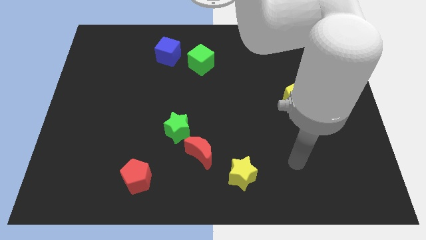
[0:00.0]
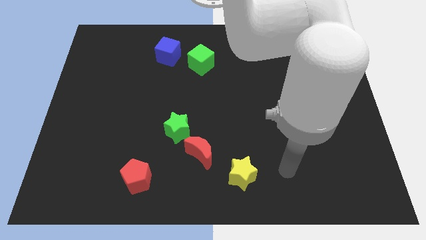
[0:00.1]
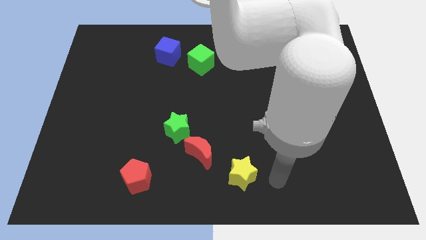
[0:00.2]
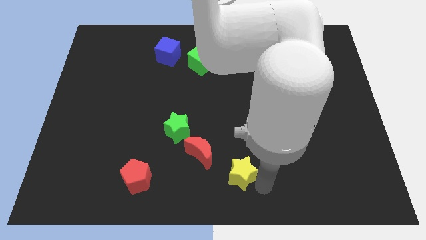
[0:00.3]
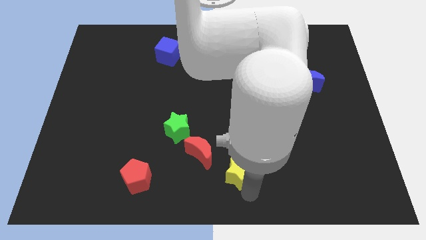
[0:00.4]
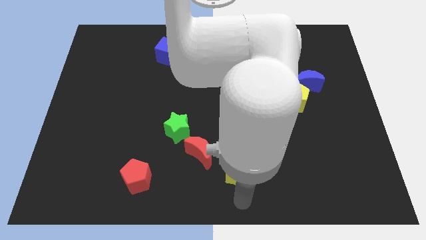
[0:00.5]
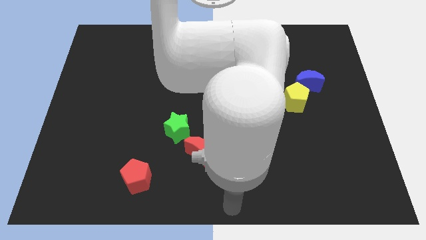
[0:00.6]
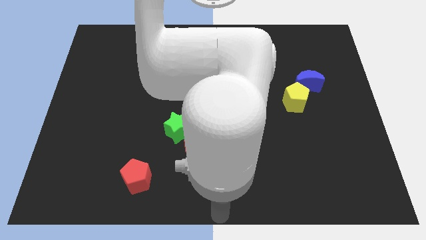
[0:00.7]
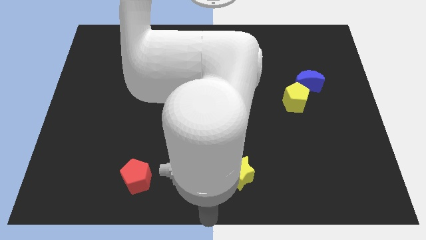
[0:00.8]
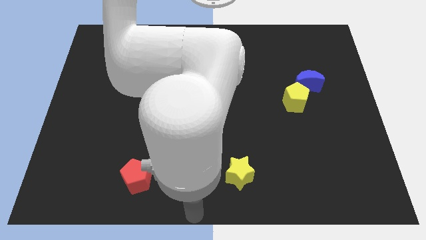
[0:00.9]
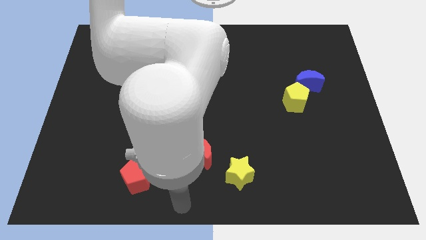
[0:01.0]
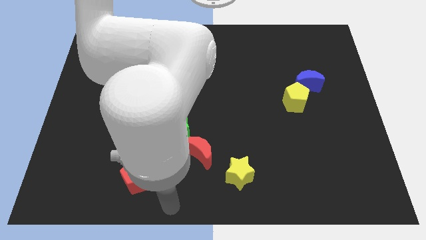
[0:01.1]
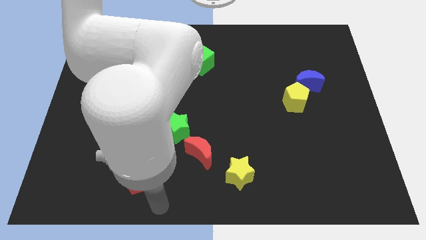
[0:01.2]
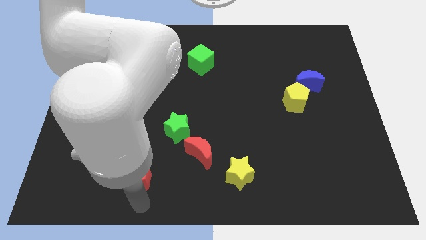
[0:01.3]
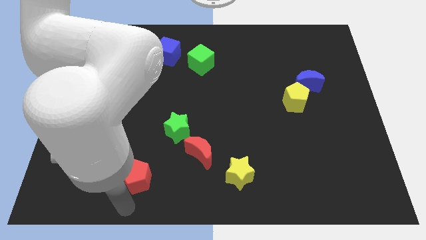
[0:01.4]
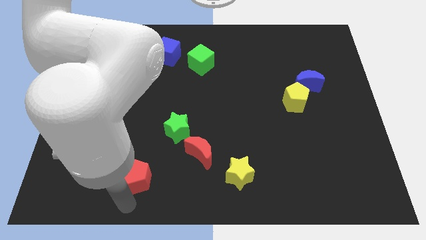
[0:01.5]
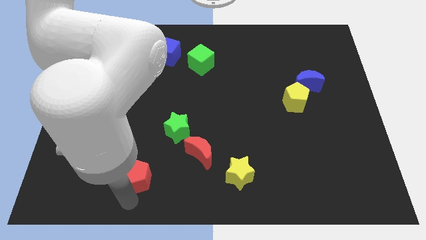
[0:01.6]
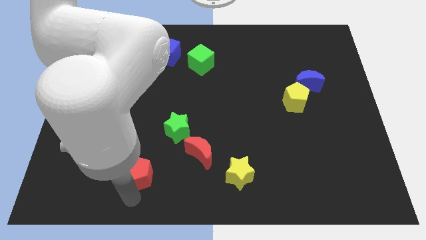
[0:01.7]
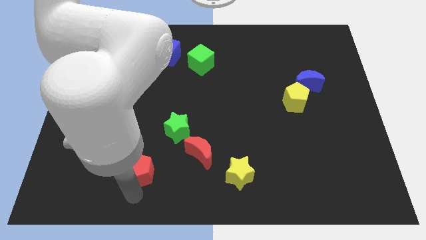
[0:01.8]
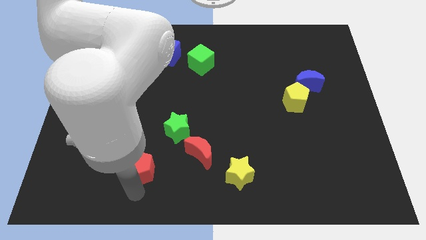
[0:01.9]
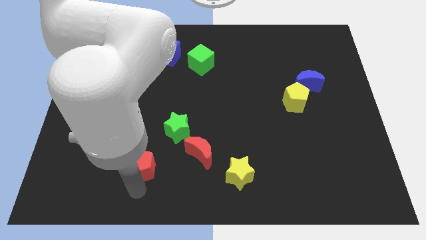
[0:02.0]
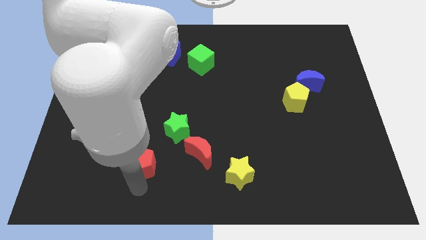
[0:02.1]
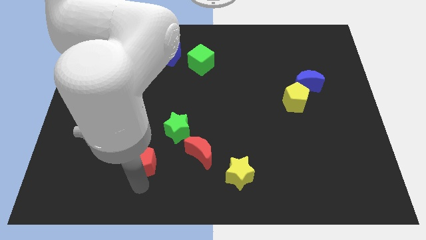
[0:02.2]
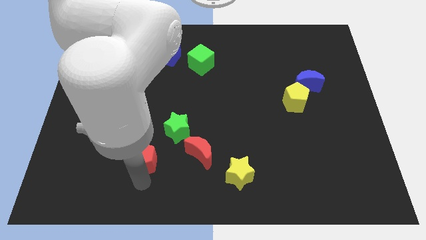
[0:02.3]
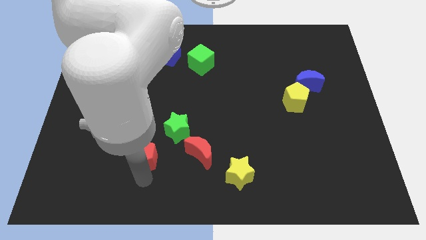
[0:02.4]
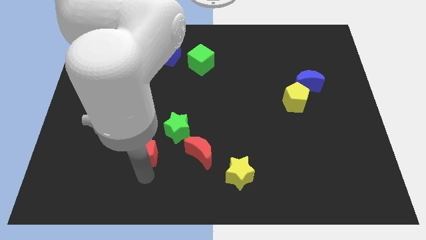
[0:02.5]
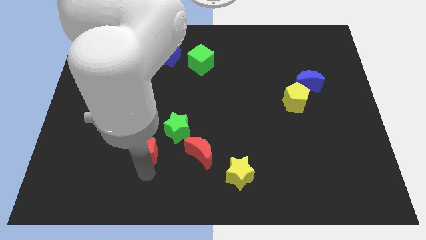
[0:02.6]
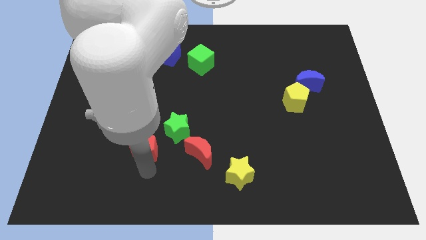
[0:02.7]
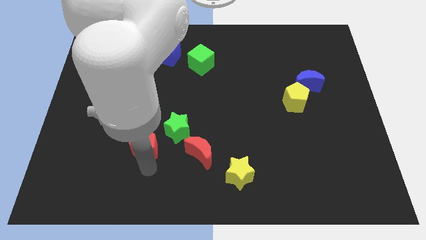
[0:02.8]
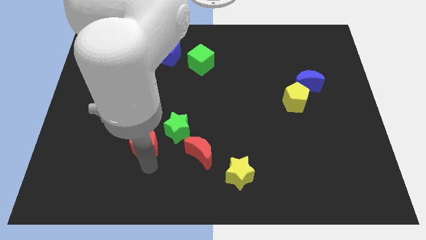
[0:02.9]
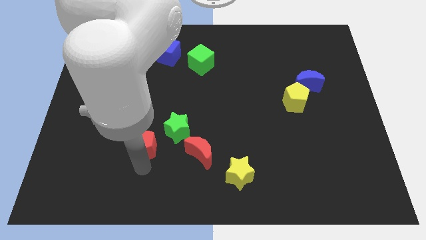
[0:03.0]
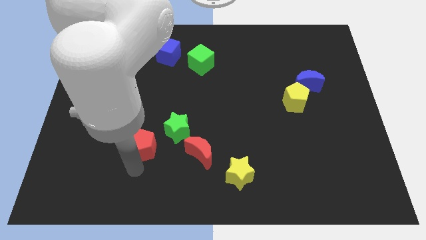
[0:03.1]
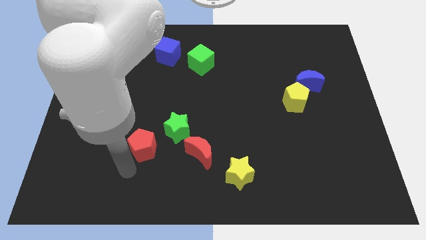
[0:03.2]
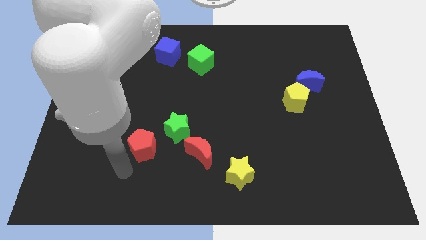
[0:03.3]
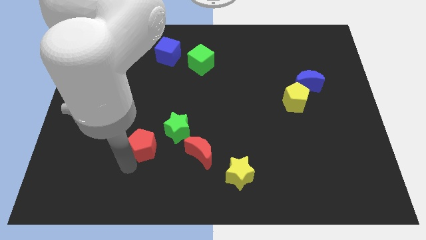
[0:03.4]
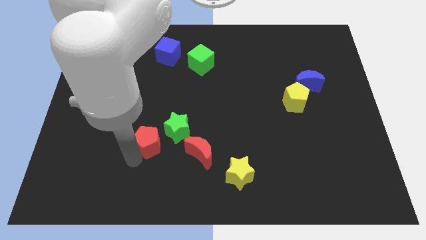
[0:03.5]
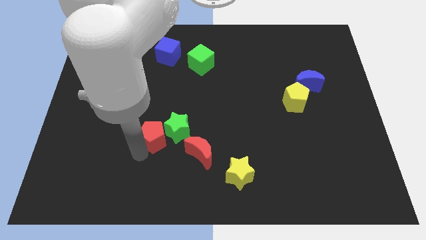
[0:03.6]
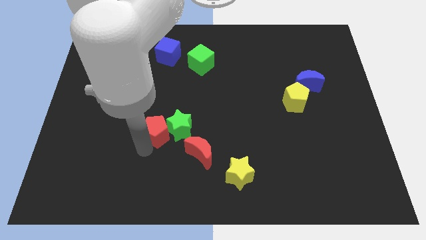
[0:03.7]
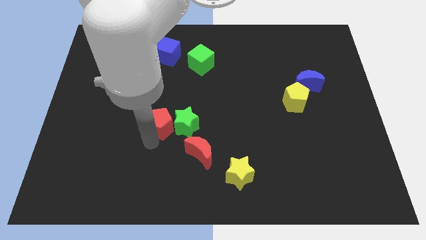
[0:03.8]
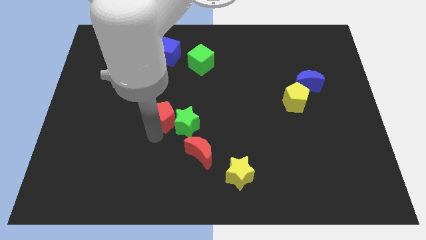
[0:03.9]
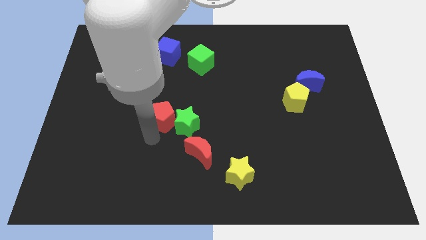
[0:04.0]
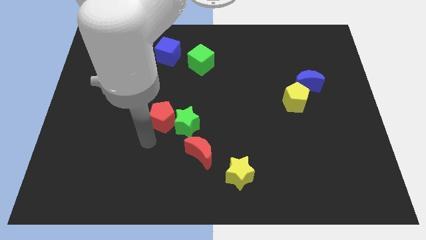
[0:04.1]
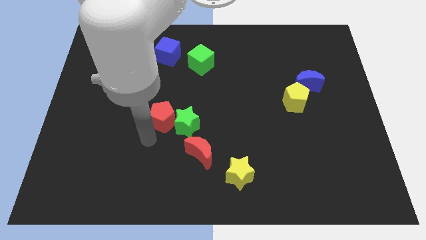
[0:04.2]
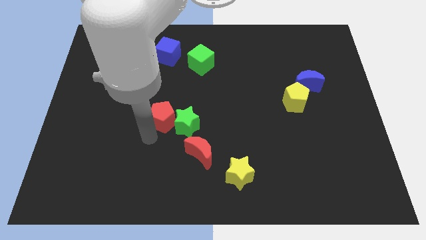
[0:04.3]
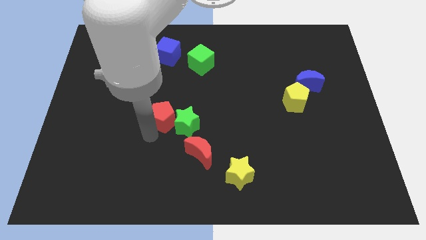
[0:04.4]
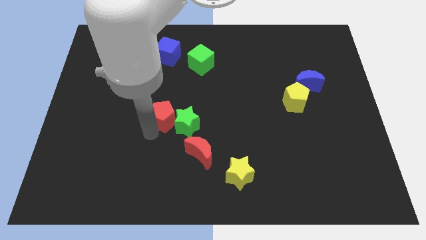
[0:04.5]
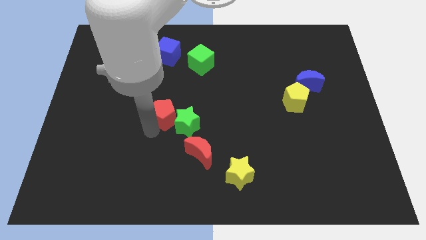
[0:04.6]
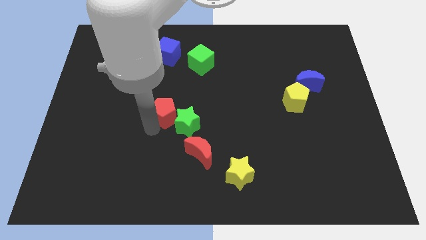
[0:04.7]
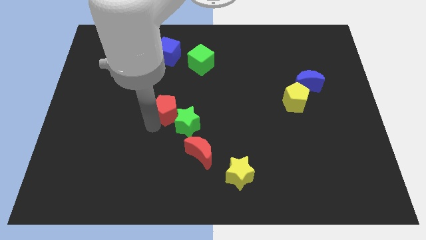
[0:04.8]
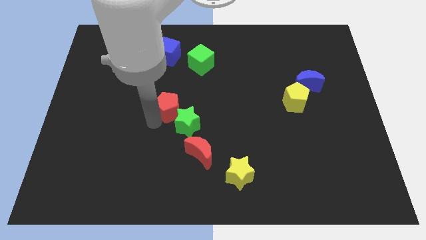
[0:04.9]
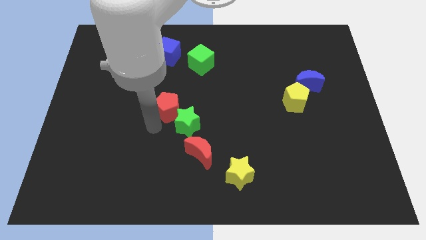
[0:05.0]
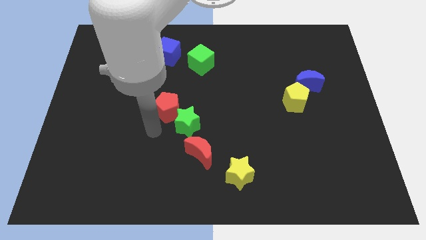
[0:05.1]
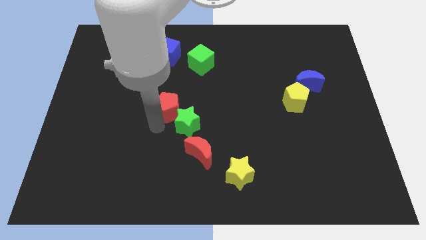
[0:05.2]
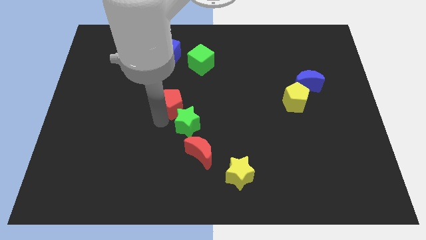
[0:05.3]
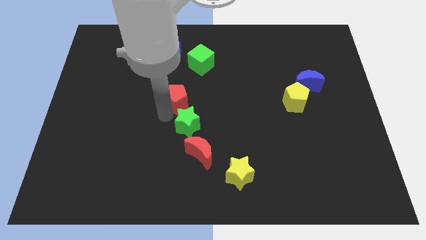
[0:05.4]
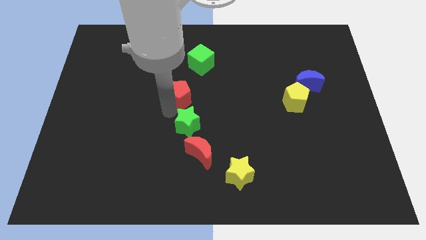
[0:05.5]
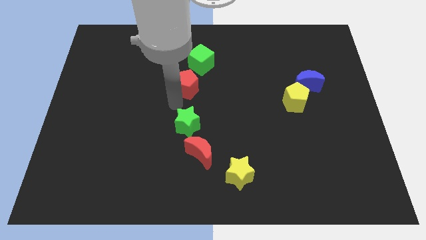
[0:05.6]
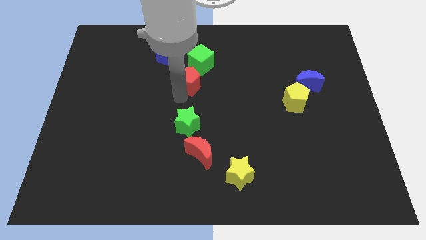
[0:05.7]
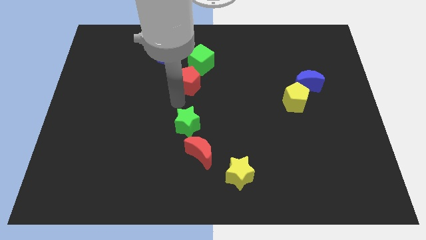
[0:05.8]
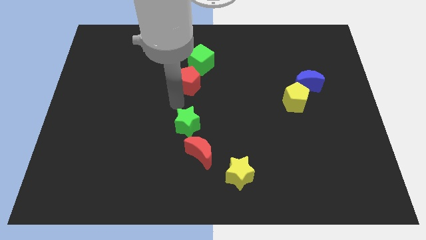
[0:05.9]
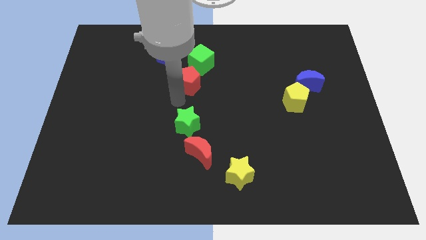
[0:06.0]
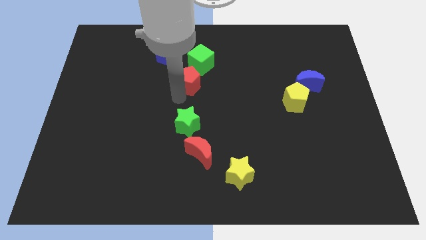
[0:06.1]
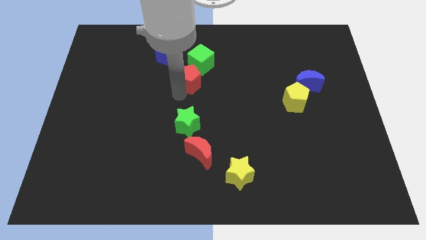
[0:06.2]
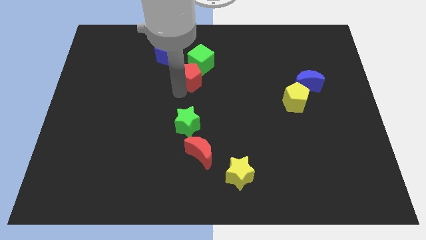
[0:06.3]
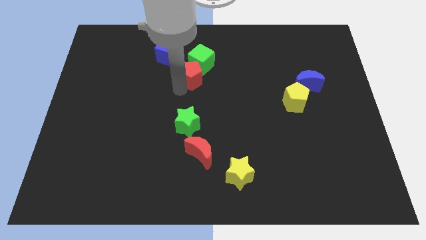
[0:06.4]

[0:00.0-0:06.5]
put the red pentagon next to the green cube
